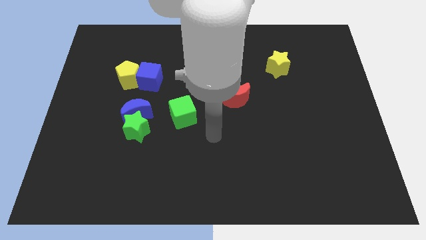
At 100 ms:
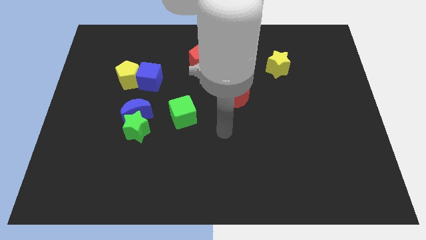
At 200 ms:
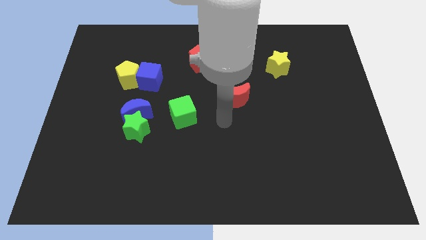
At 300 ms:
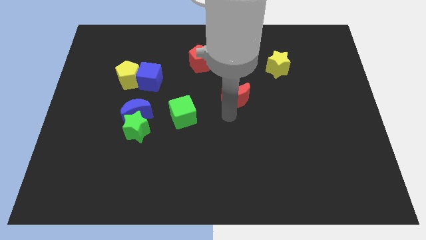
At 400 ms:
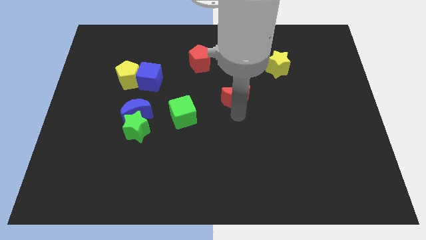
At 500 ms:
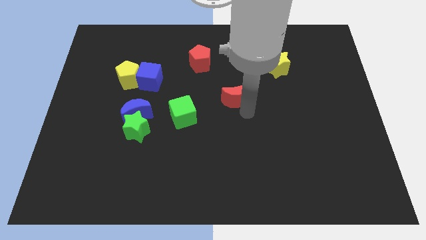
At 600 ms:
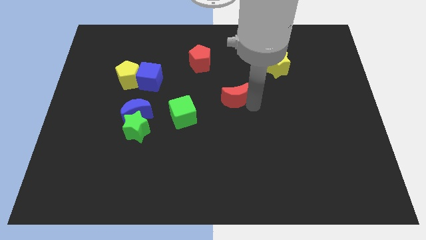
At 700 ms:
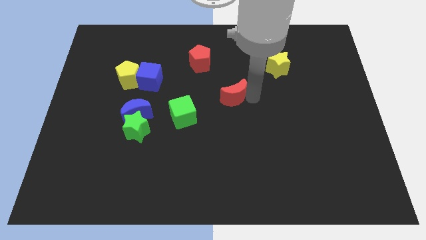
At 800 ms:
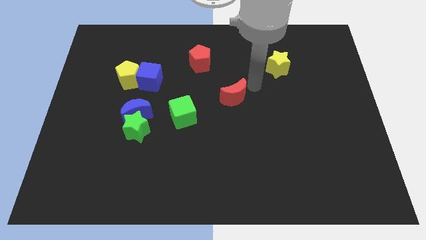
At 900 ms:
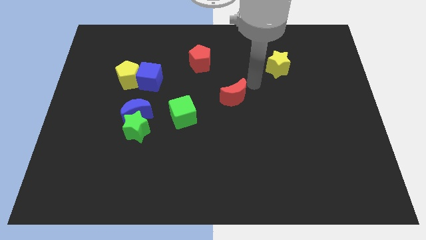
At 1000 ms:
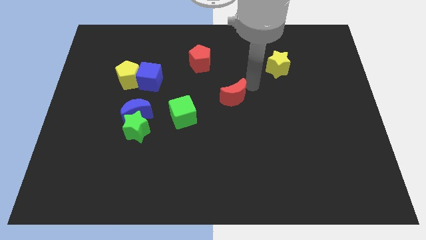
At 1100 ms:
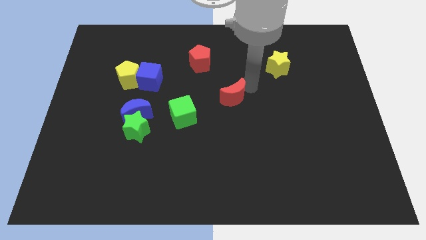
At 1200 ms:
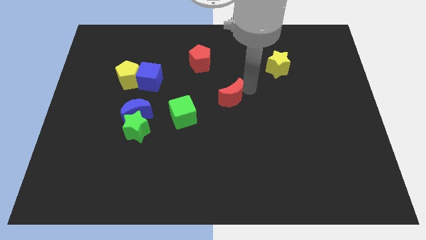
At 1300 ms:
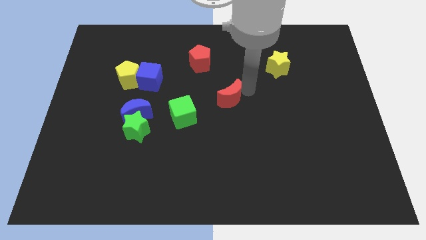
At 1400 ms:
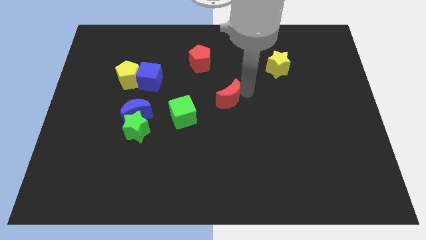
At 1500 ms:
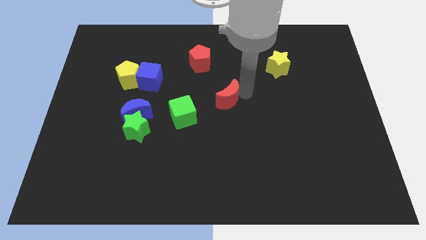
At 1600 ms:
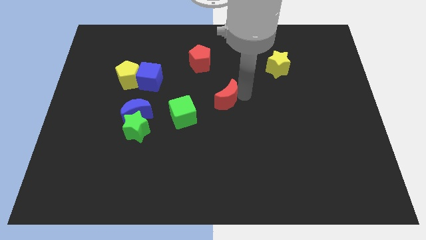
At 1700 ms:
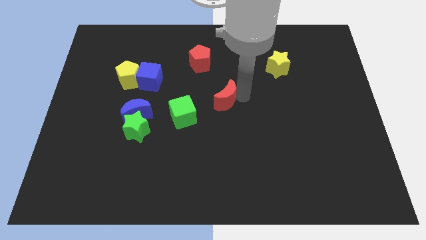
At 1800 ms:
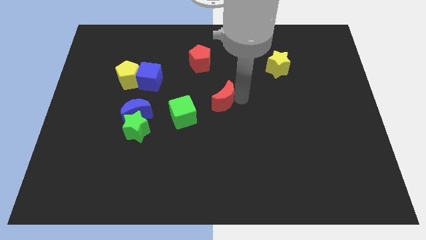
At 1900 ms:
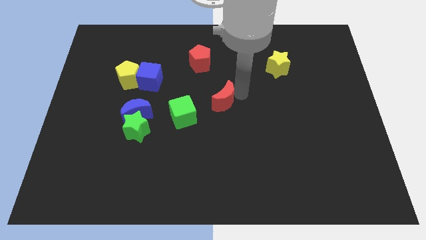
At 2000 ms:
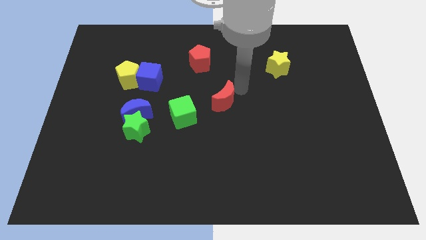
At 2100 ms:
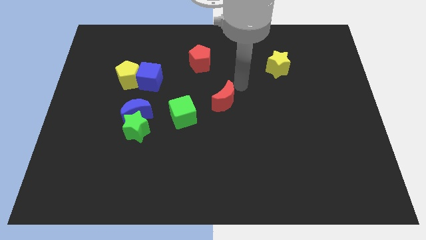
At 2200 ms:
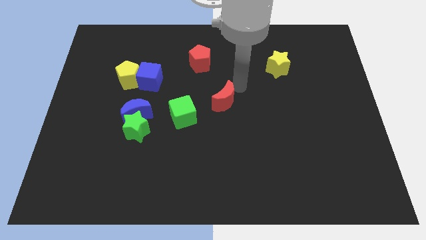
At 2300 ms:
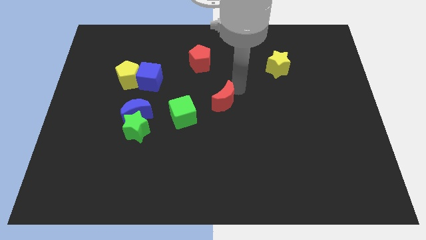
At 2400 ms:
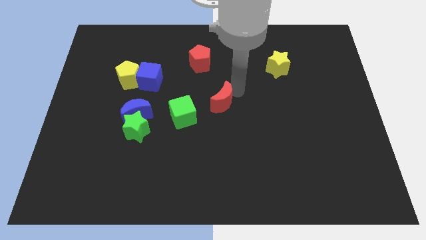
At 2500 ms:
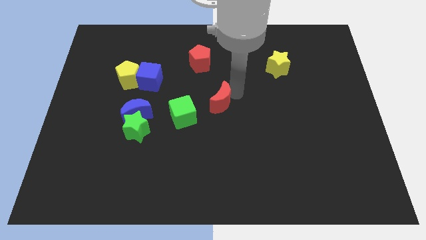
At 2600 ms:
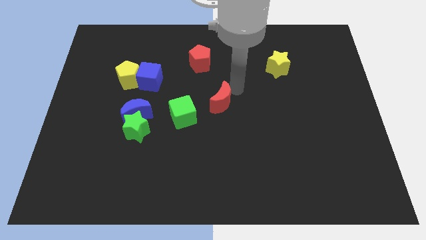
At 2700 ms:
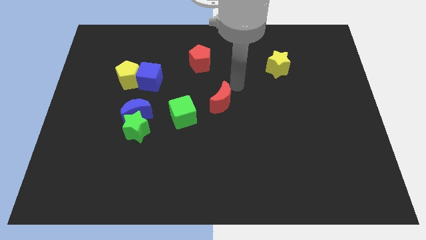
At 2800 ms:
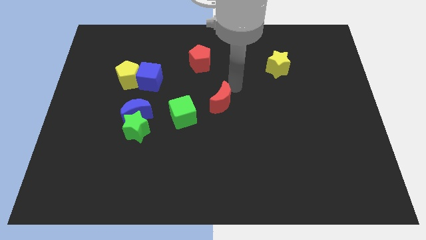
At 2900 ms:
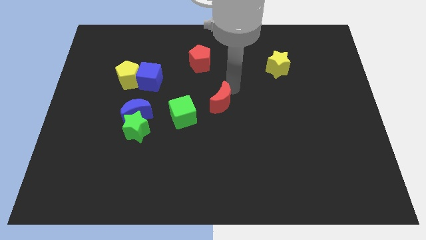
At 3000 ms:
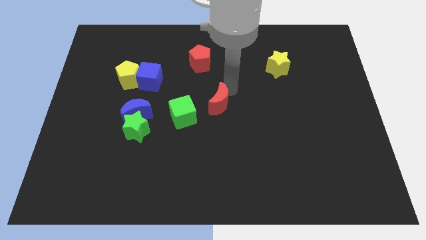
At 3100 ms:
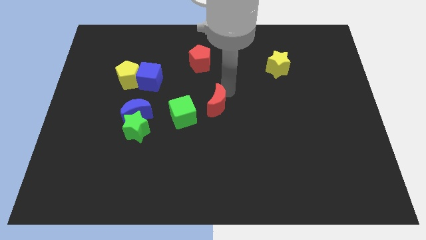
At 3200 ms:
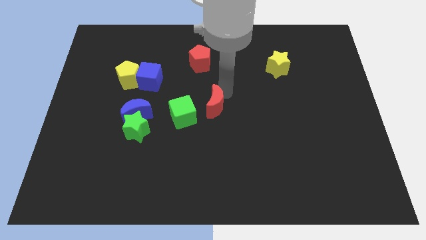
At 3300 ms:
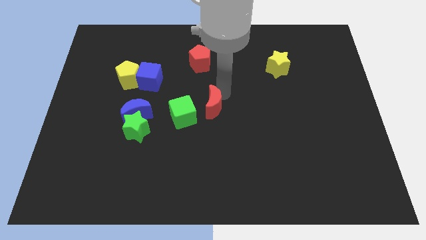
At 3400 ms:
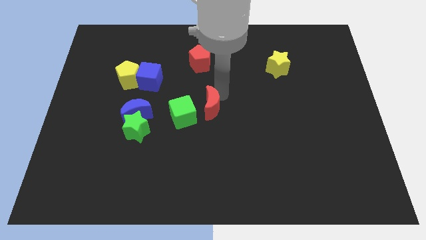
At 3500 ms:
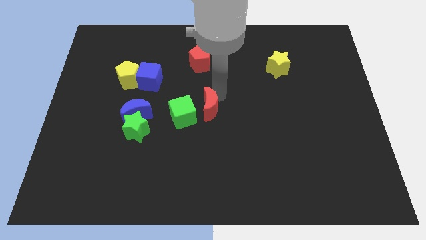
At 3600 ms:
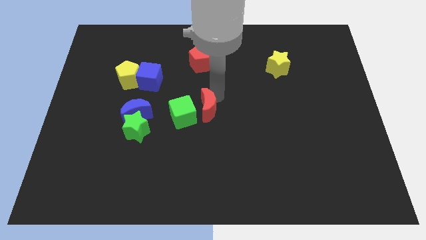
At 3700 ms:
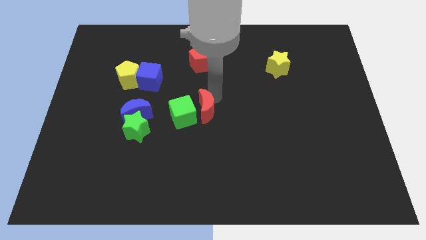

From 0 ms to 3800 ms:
slide the red moon a little bit downwards and to the left diagonally

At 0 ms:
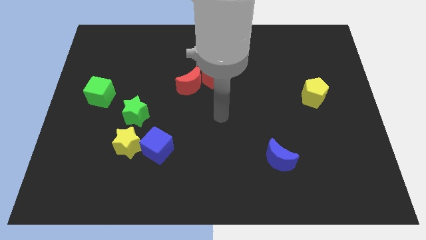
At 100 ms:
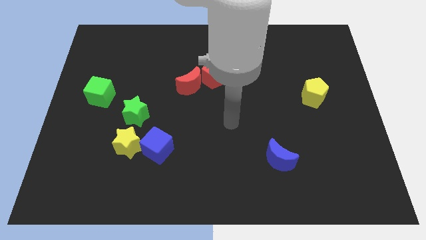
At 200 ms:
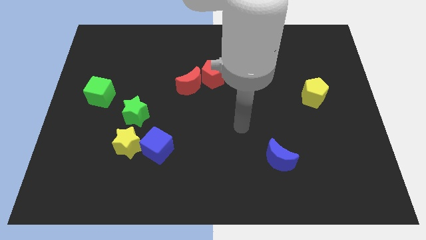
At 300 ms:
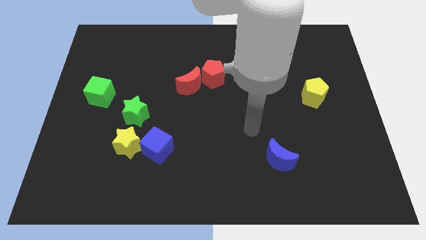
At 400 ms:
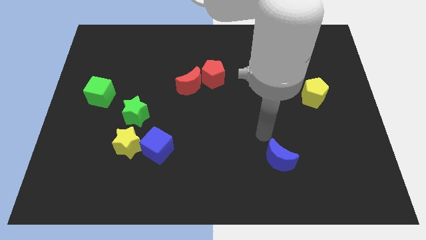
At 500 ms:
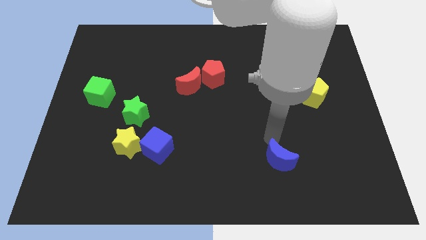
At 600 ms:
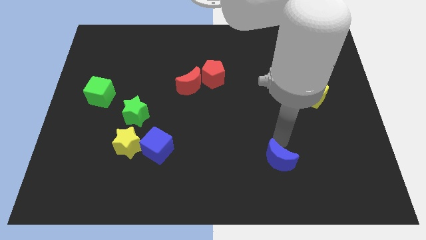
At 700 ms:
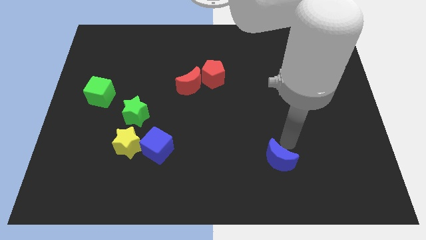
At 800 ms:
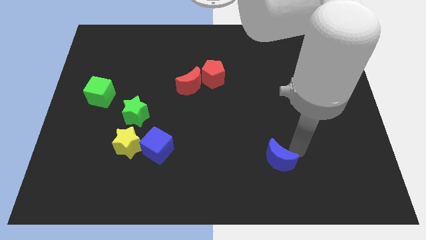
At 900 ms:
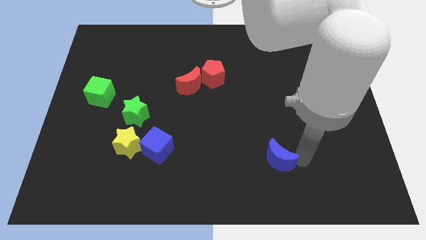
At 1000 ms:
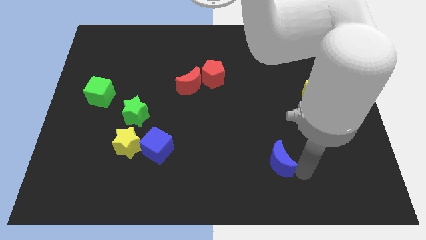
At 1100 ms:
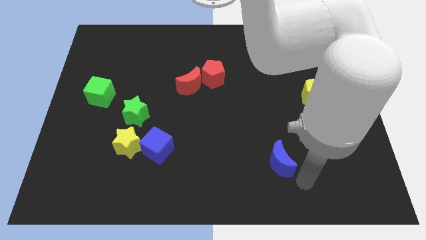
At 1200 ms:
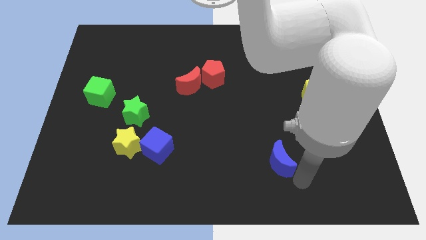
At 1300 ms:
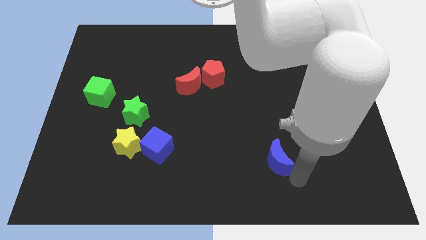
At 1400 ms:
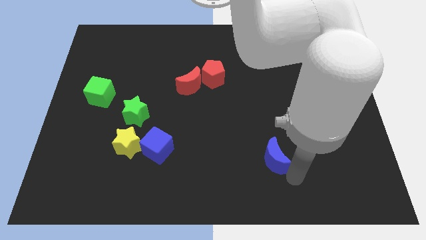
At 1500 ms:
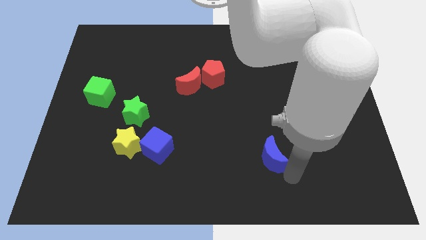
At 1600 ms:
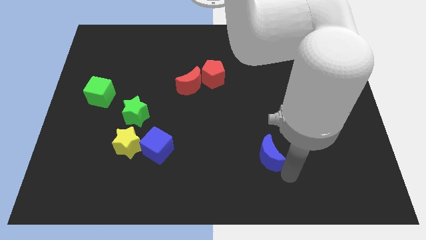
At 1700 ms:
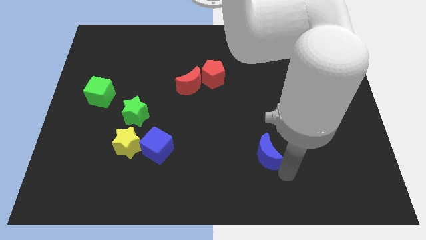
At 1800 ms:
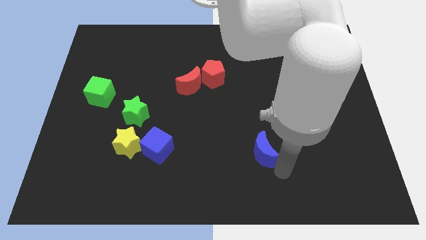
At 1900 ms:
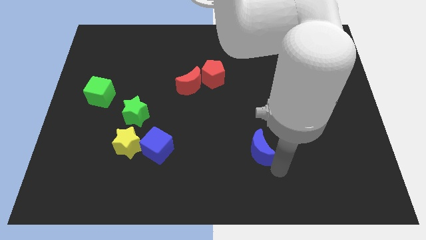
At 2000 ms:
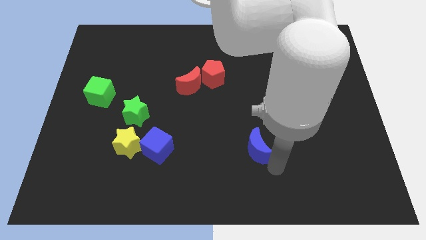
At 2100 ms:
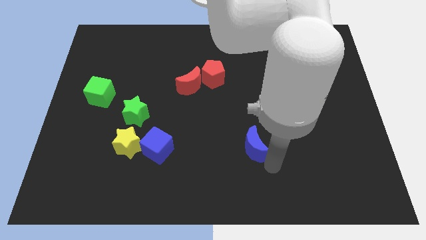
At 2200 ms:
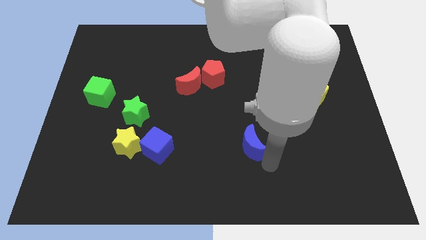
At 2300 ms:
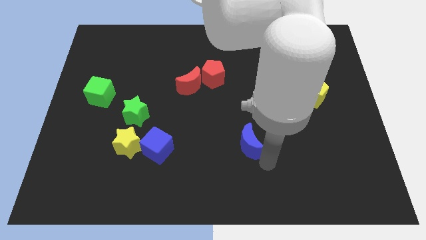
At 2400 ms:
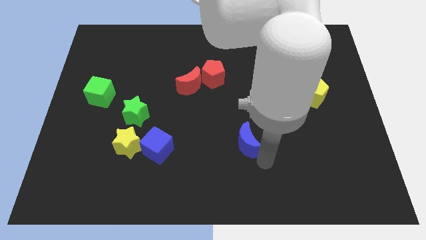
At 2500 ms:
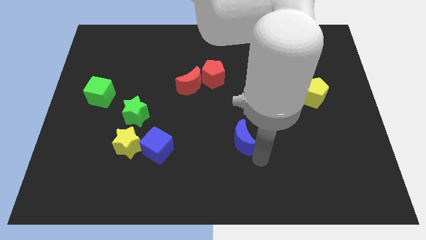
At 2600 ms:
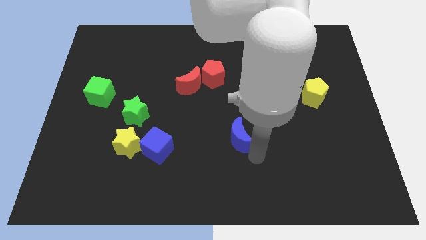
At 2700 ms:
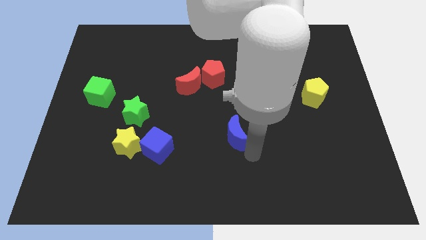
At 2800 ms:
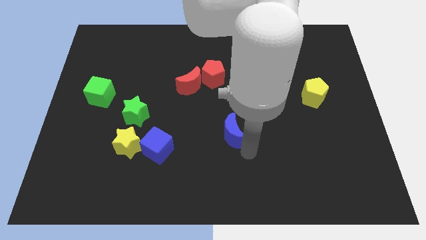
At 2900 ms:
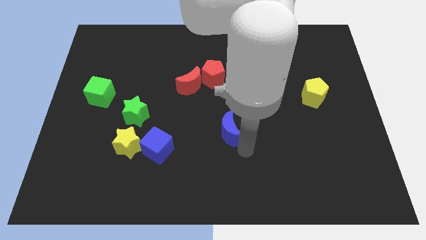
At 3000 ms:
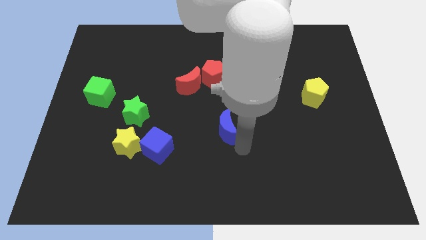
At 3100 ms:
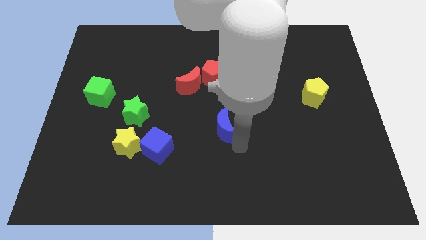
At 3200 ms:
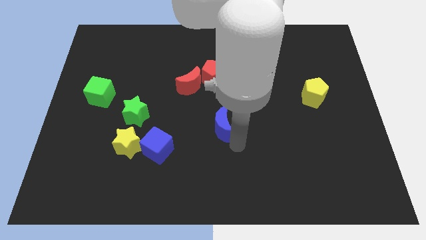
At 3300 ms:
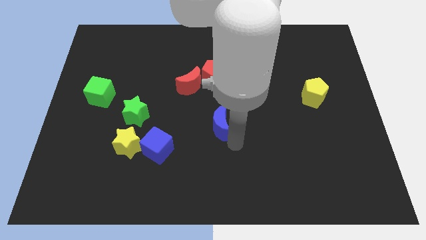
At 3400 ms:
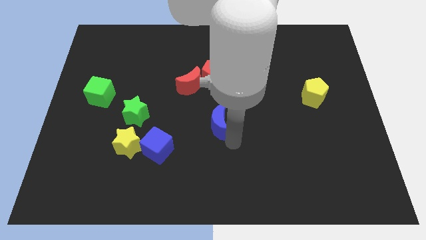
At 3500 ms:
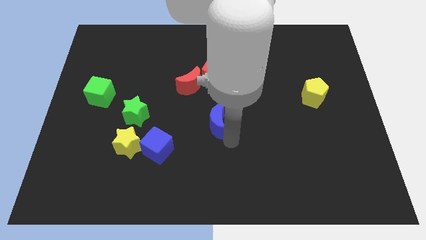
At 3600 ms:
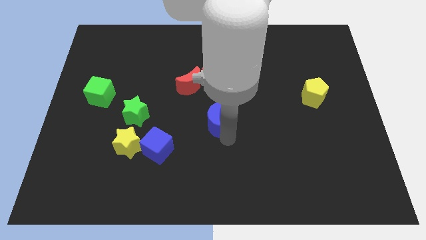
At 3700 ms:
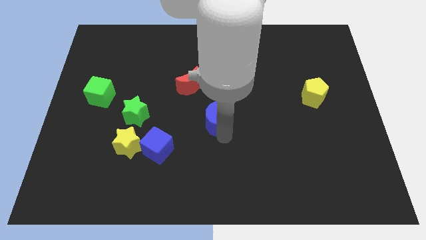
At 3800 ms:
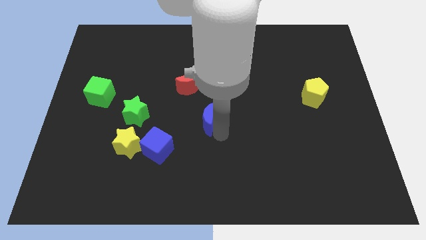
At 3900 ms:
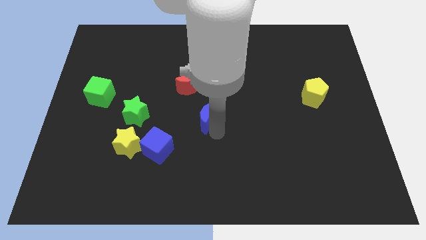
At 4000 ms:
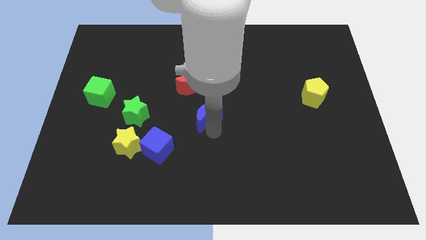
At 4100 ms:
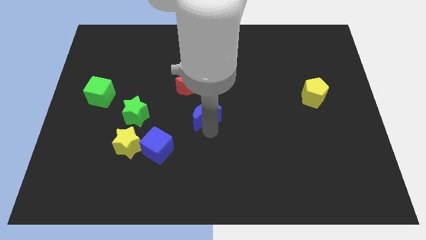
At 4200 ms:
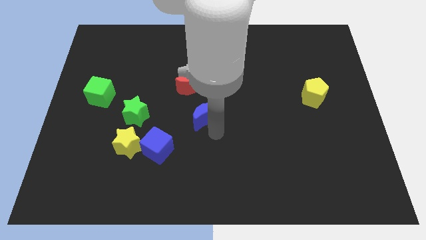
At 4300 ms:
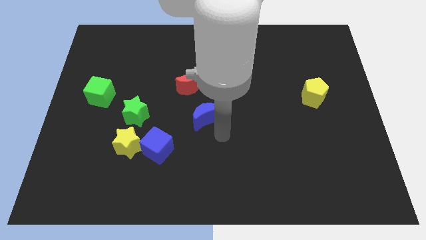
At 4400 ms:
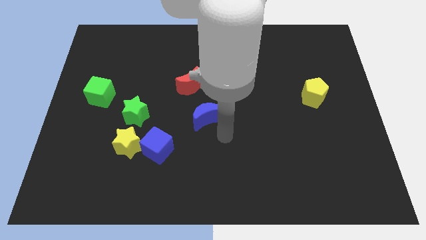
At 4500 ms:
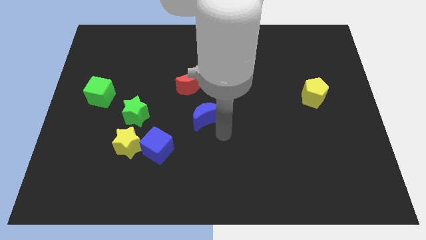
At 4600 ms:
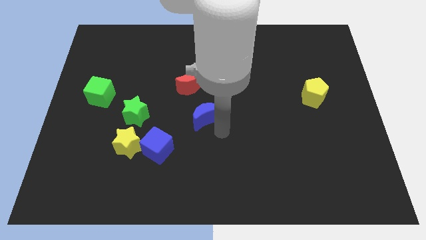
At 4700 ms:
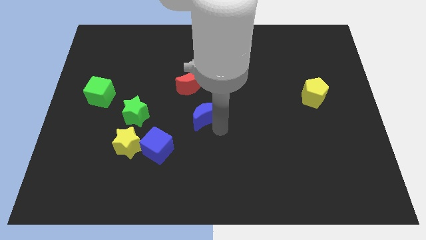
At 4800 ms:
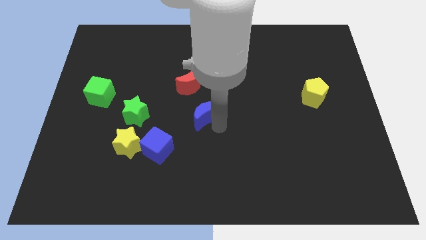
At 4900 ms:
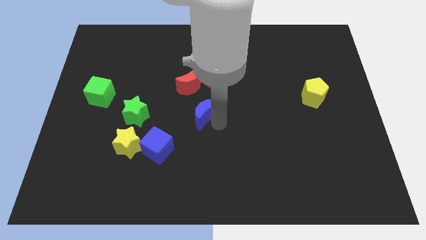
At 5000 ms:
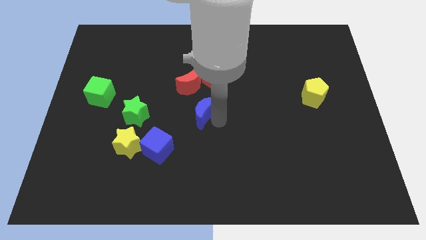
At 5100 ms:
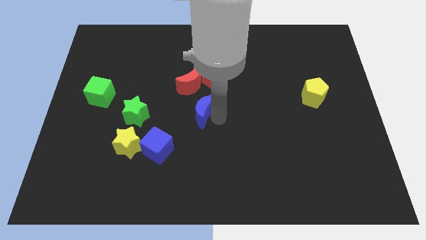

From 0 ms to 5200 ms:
move the blue moon upwards and then left
